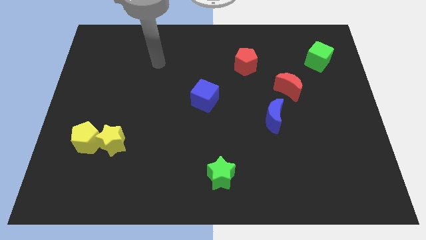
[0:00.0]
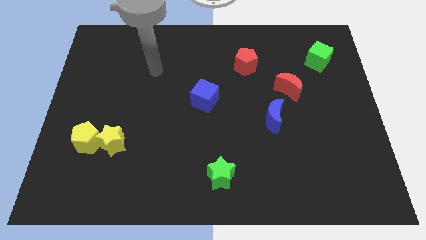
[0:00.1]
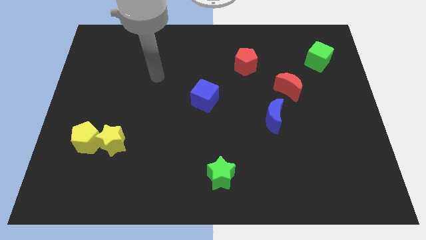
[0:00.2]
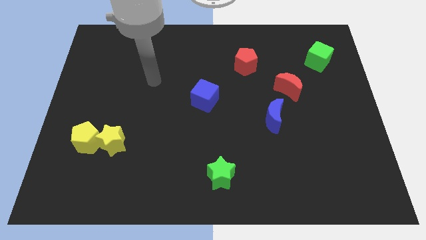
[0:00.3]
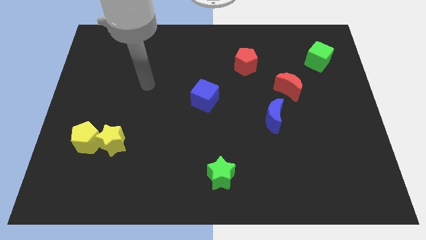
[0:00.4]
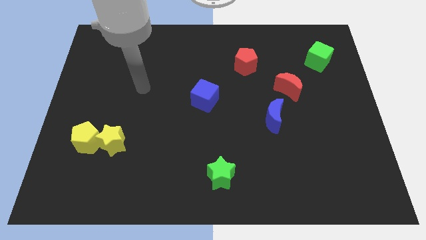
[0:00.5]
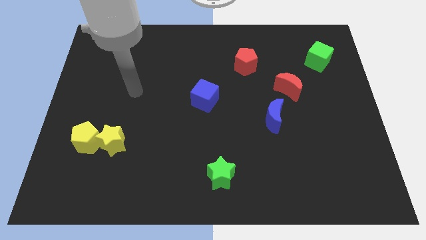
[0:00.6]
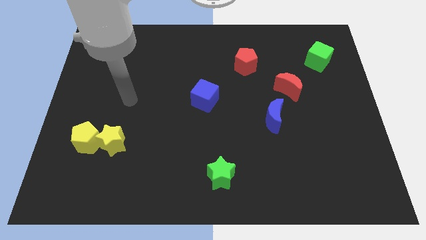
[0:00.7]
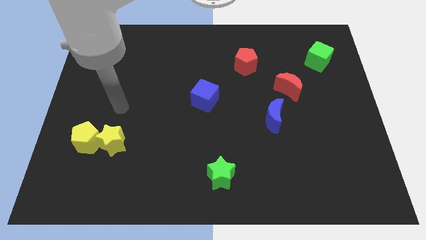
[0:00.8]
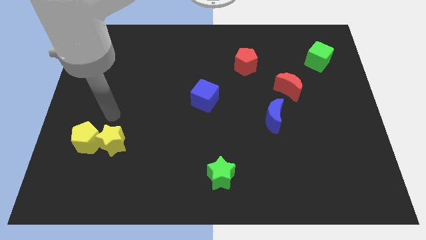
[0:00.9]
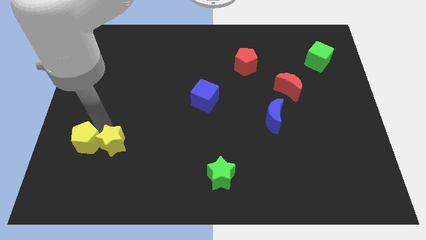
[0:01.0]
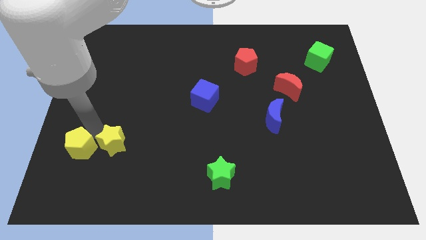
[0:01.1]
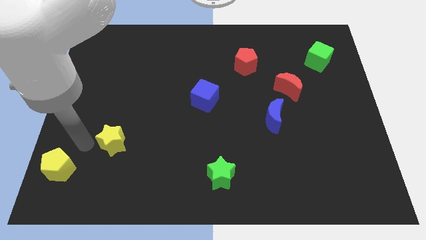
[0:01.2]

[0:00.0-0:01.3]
move the yellow star away from the yellow pentagon

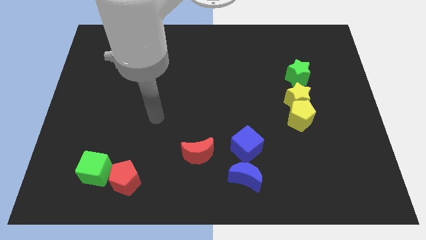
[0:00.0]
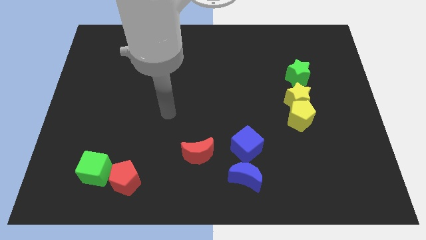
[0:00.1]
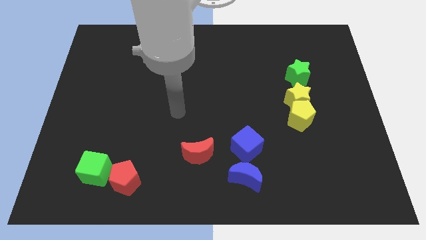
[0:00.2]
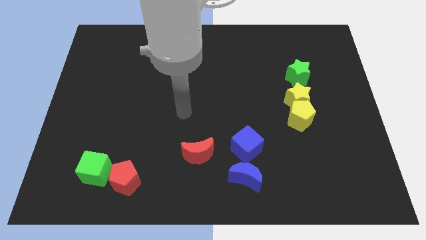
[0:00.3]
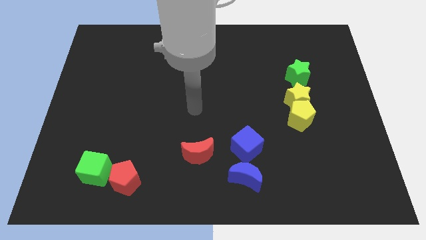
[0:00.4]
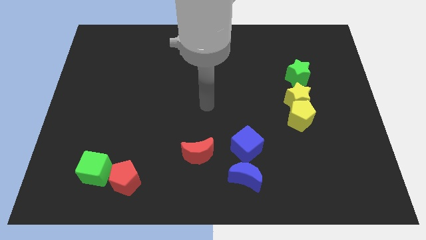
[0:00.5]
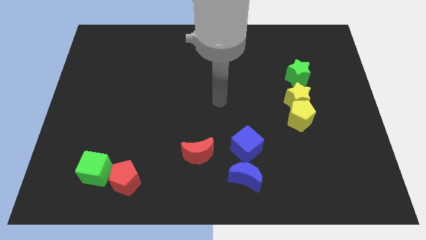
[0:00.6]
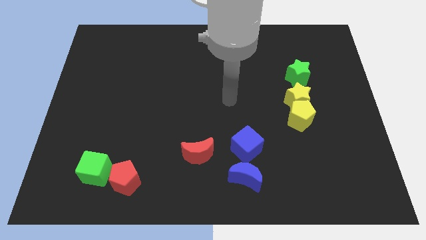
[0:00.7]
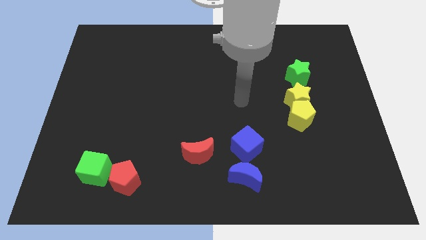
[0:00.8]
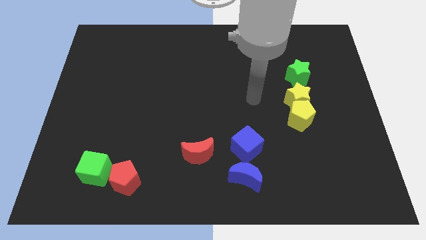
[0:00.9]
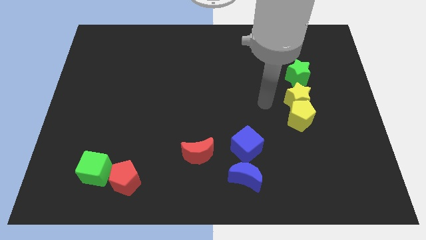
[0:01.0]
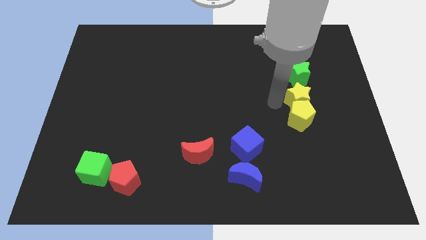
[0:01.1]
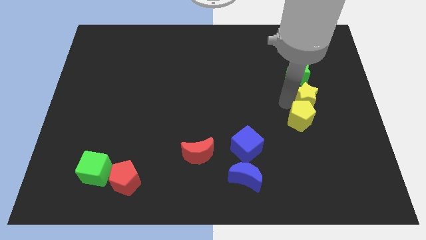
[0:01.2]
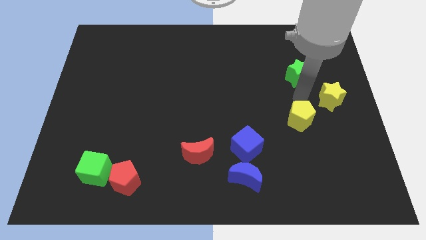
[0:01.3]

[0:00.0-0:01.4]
pull the yellow pentagon apart from the yellow star

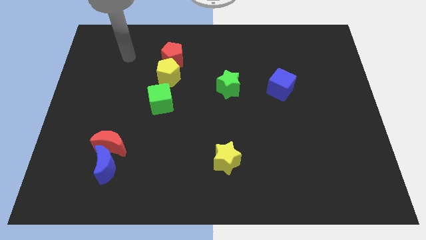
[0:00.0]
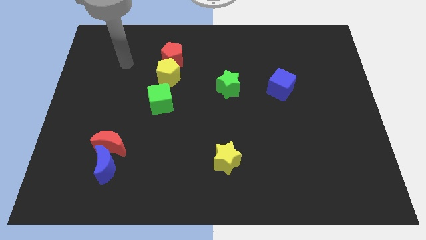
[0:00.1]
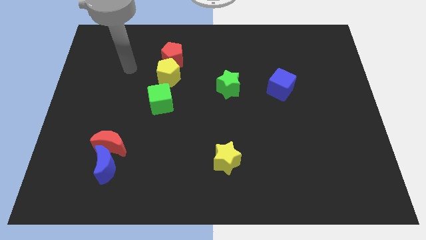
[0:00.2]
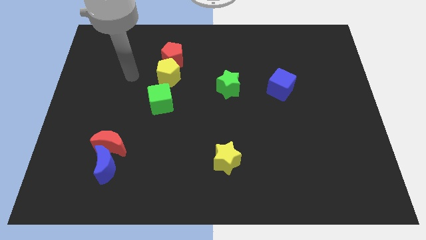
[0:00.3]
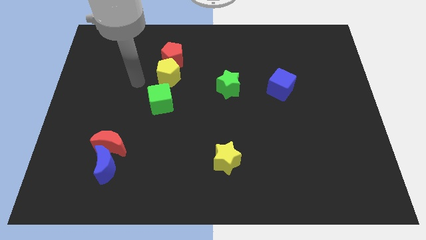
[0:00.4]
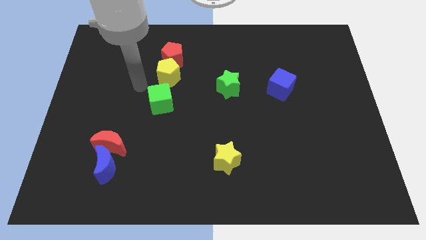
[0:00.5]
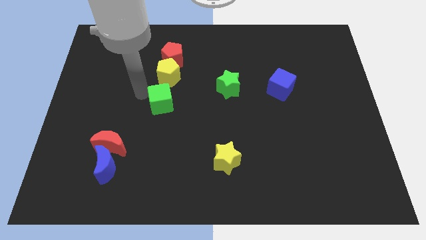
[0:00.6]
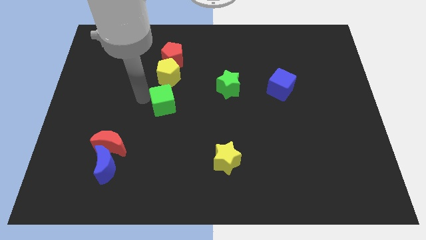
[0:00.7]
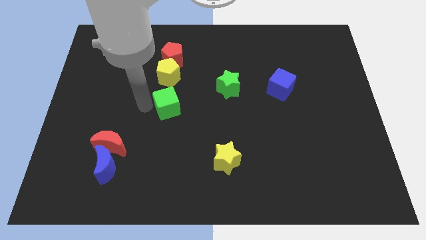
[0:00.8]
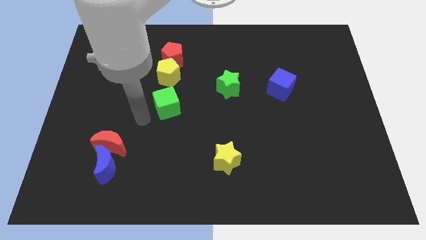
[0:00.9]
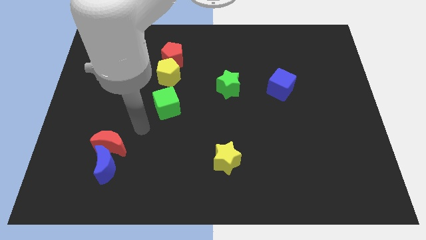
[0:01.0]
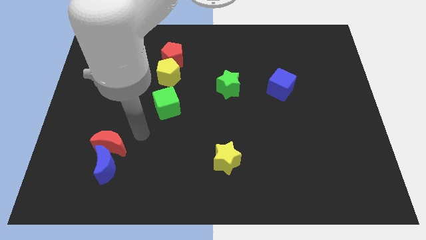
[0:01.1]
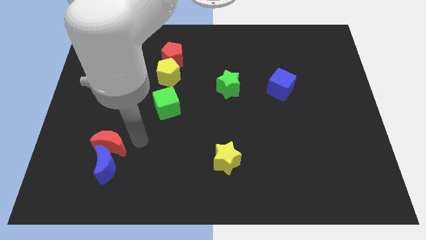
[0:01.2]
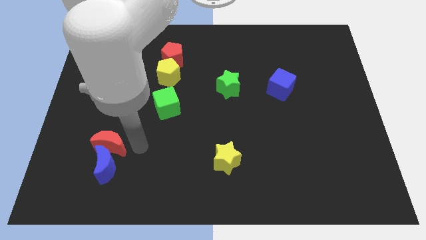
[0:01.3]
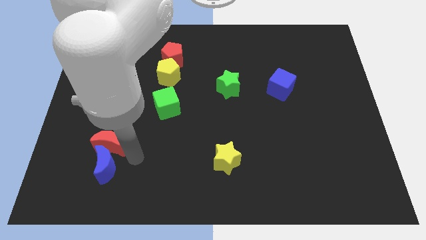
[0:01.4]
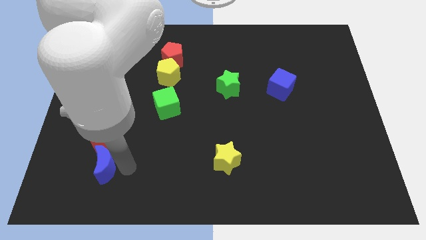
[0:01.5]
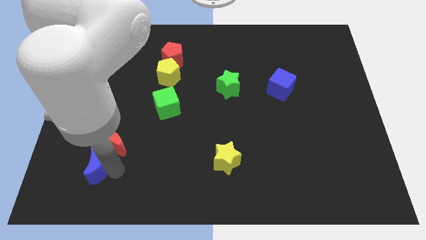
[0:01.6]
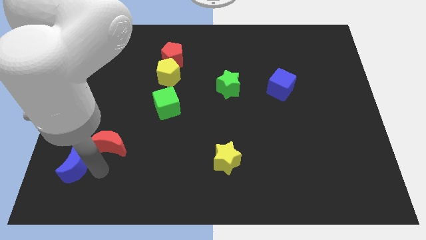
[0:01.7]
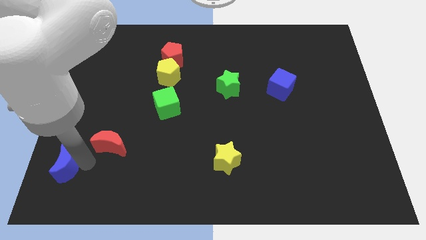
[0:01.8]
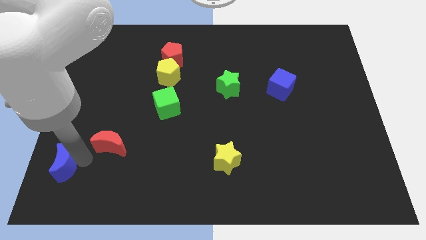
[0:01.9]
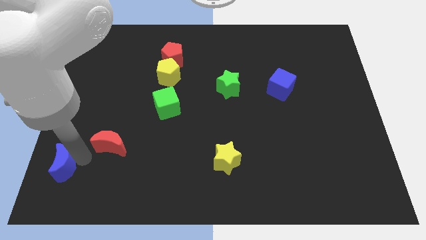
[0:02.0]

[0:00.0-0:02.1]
separate the red moon from the blue moon

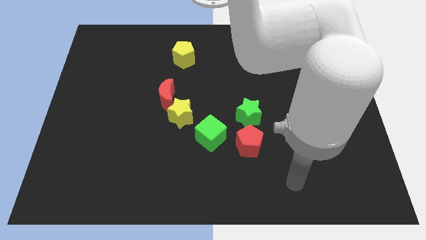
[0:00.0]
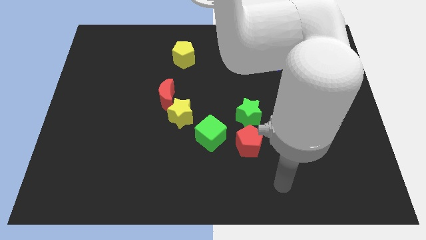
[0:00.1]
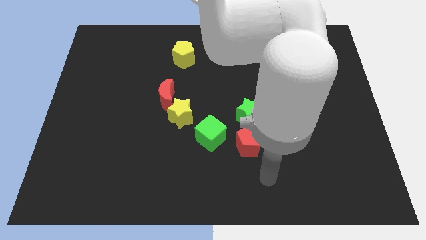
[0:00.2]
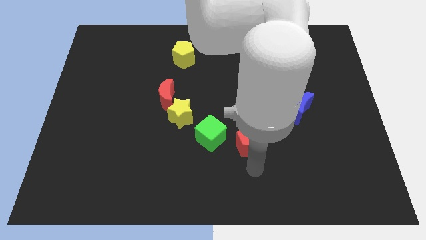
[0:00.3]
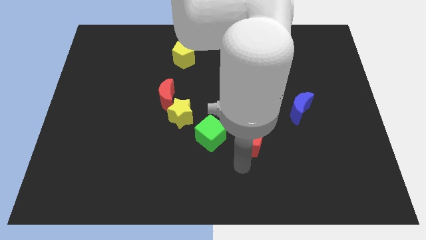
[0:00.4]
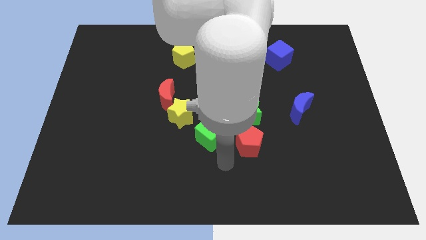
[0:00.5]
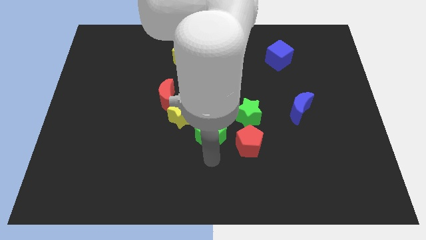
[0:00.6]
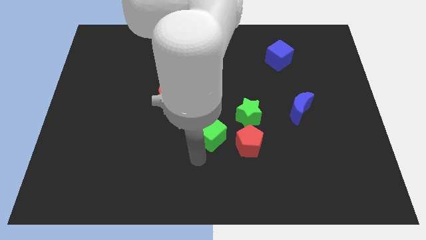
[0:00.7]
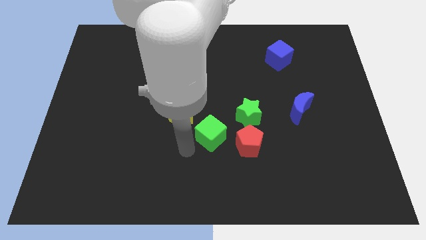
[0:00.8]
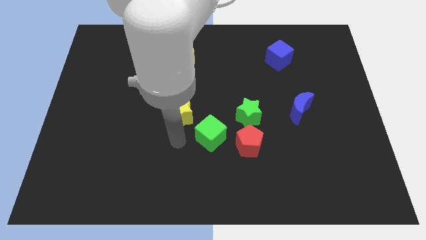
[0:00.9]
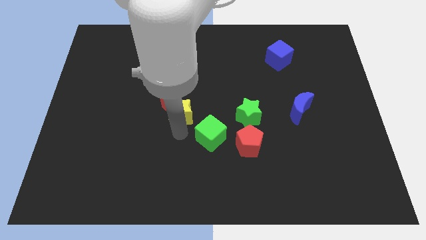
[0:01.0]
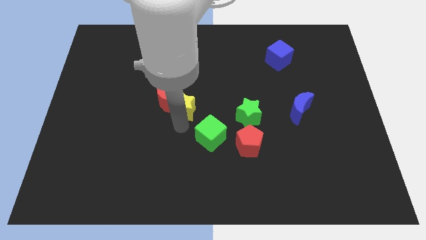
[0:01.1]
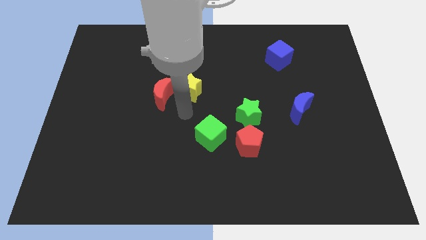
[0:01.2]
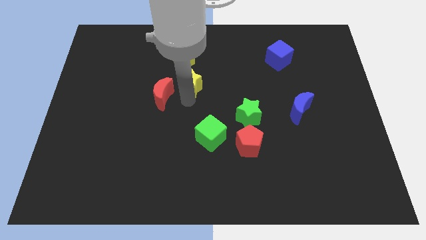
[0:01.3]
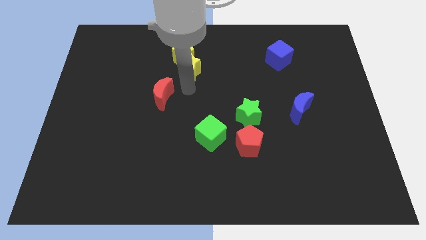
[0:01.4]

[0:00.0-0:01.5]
separate the red moon from the yellow star

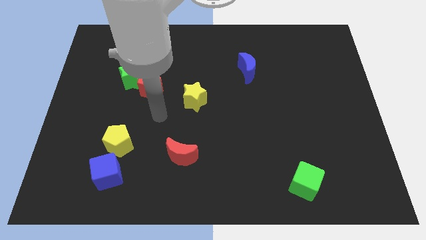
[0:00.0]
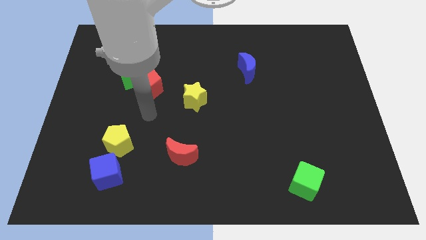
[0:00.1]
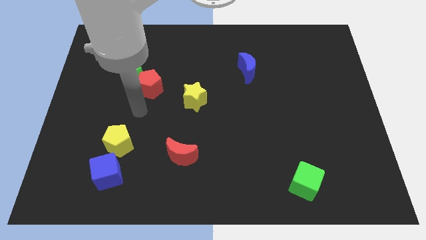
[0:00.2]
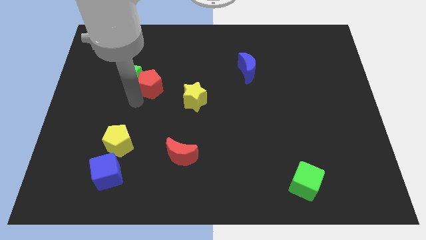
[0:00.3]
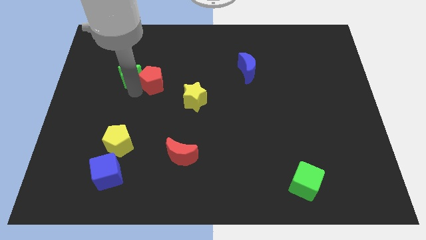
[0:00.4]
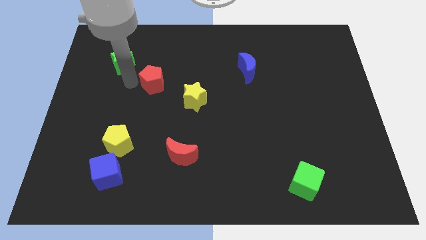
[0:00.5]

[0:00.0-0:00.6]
pull the red pentagon apart from the green star

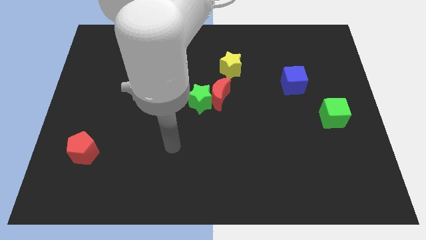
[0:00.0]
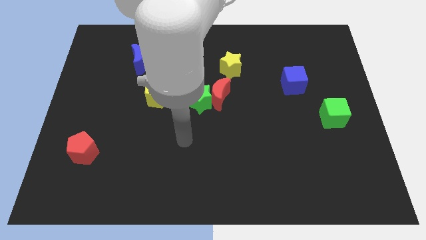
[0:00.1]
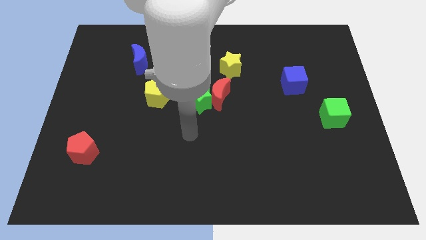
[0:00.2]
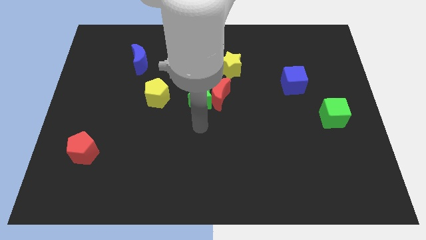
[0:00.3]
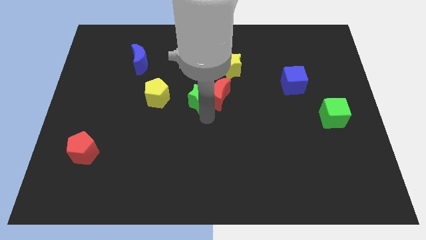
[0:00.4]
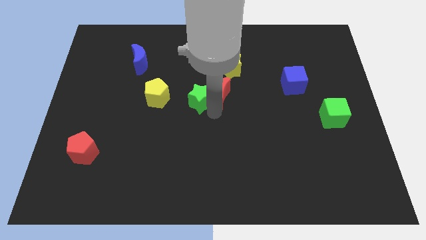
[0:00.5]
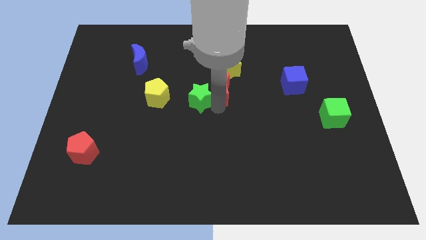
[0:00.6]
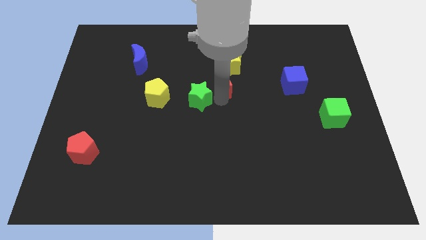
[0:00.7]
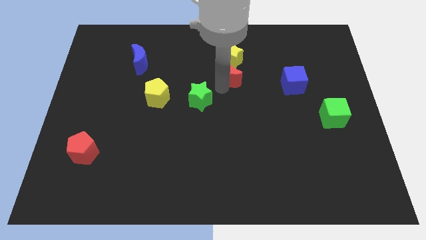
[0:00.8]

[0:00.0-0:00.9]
separate the green star from the red moon

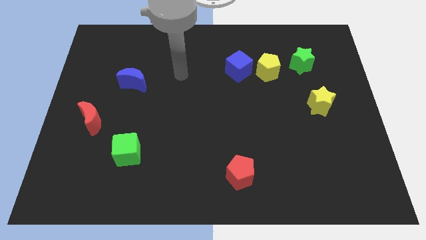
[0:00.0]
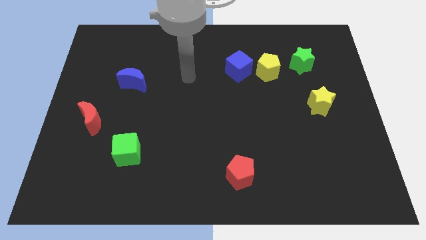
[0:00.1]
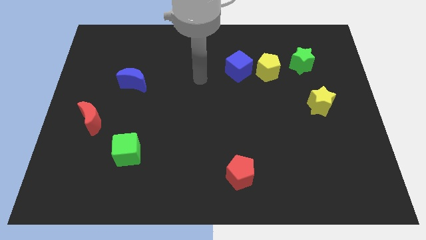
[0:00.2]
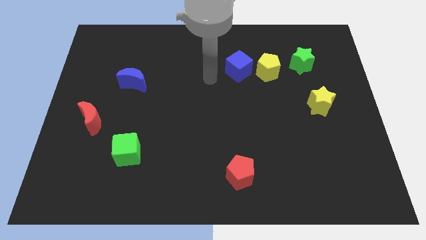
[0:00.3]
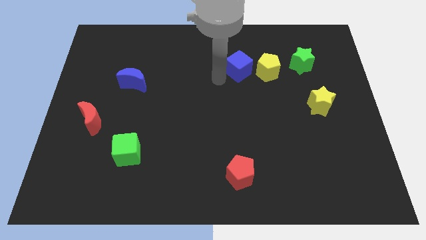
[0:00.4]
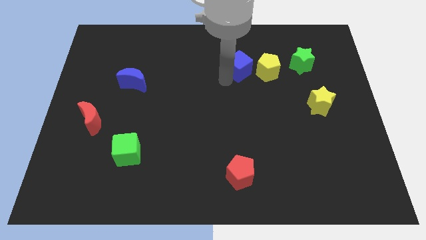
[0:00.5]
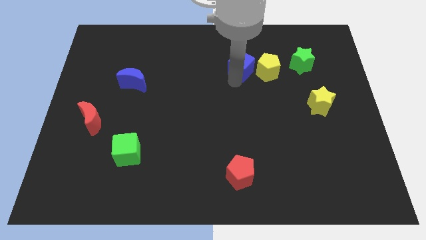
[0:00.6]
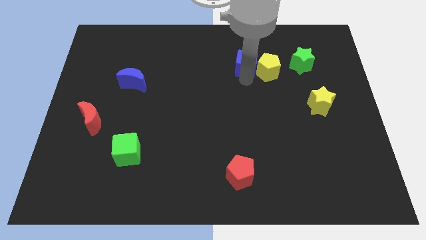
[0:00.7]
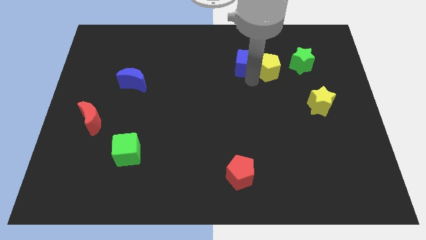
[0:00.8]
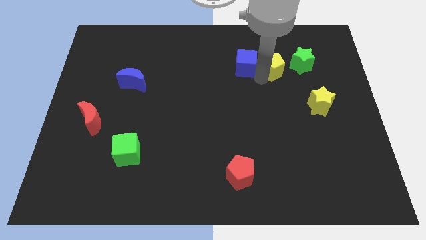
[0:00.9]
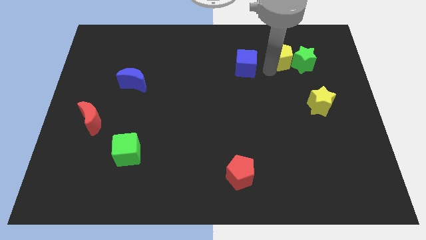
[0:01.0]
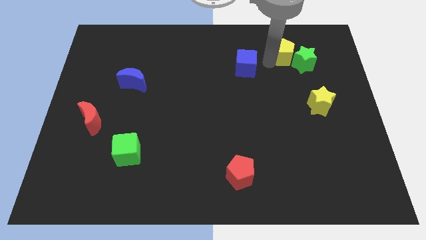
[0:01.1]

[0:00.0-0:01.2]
pull the blue cube apart from the yellow pentagon

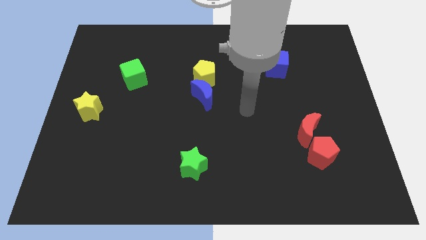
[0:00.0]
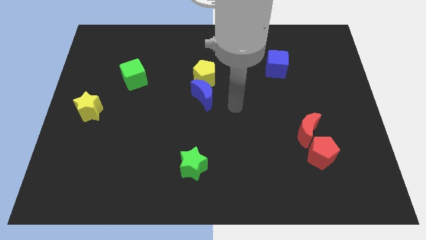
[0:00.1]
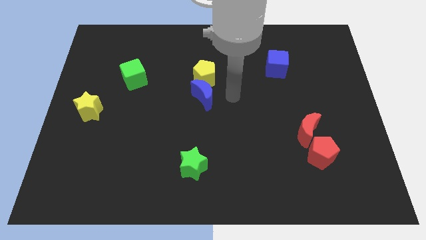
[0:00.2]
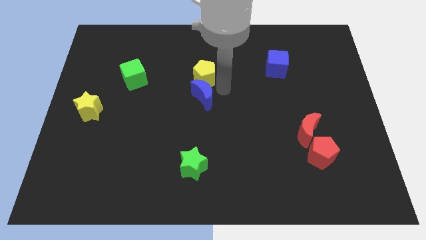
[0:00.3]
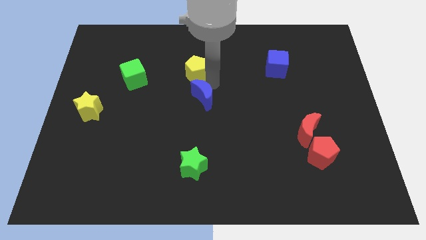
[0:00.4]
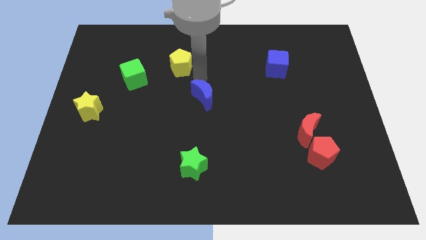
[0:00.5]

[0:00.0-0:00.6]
separate the blue moon from the yellow pentagon
